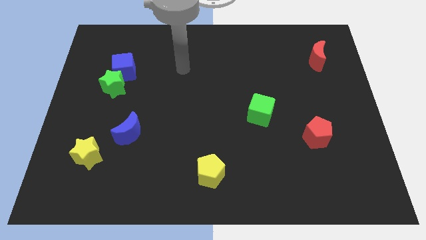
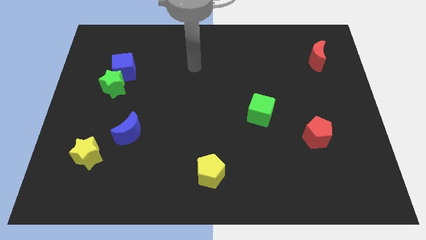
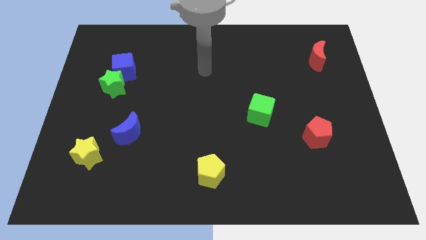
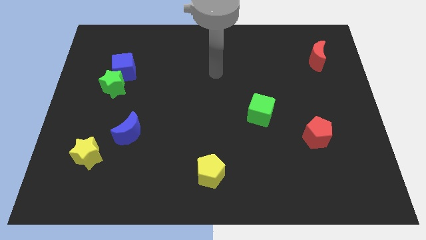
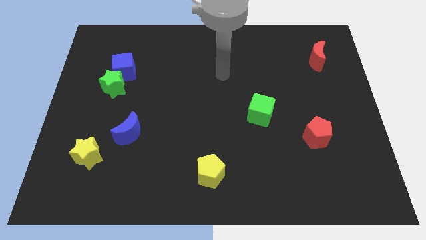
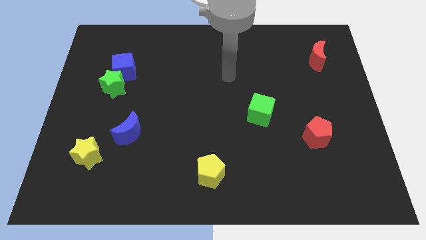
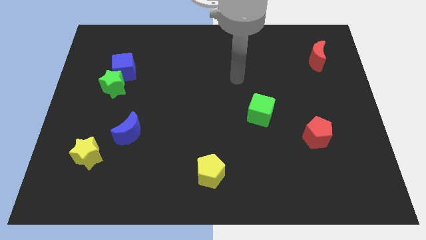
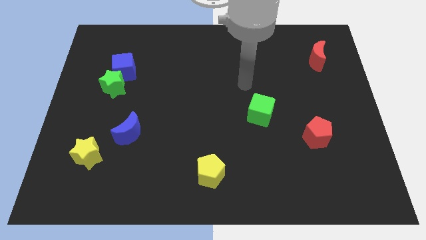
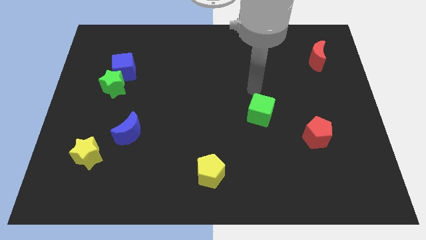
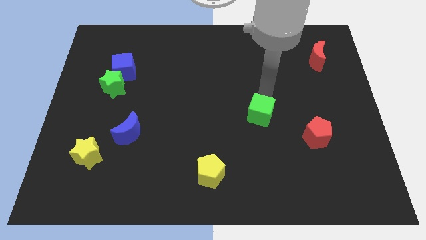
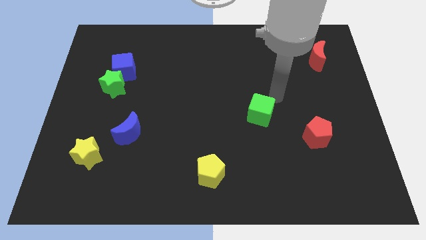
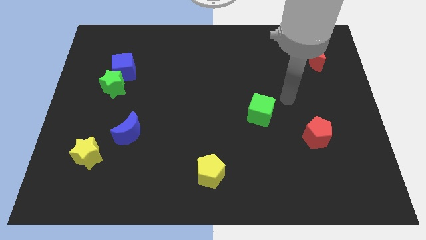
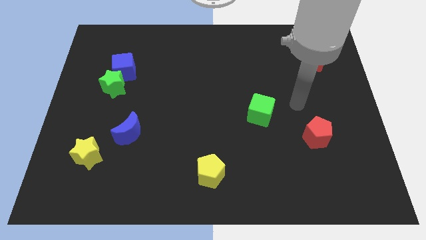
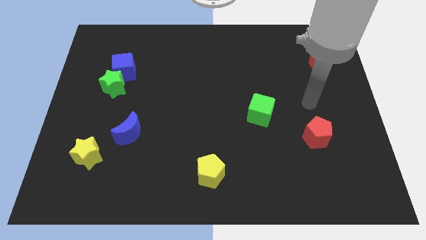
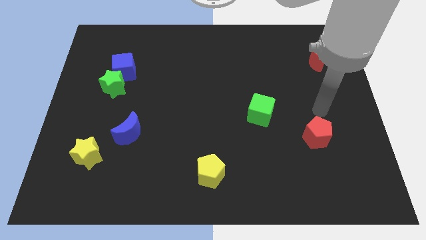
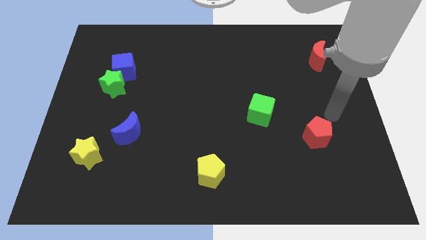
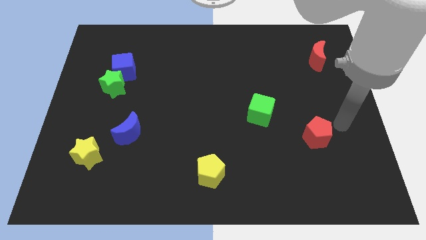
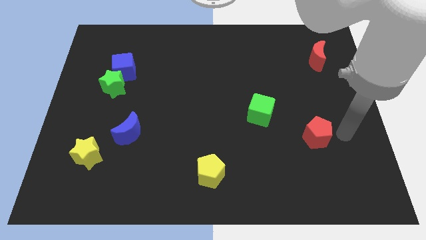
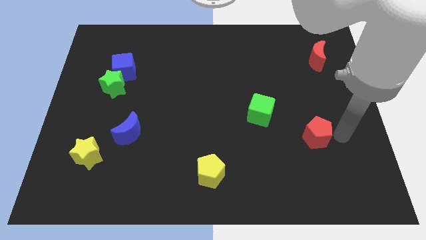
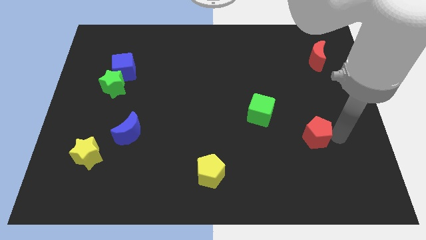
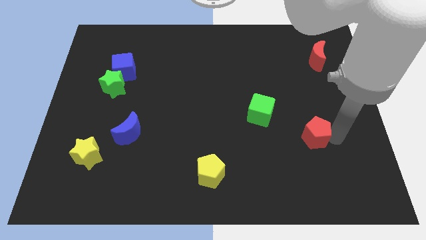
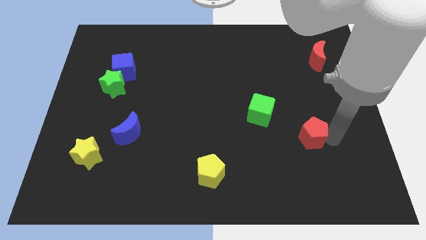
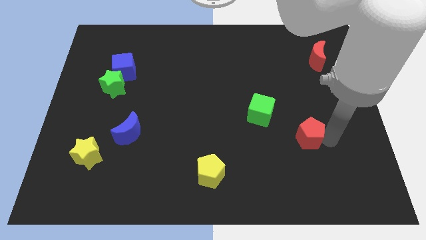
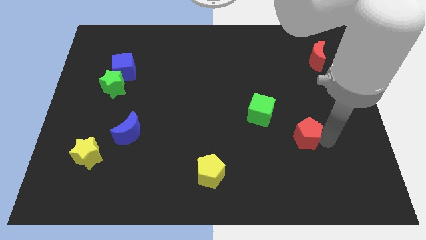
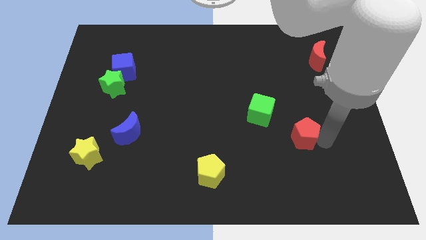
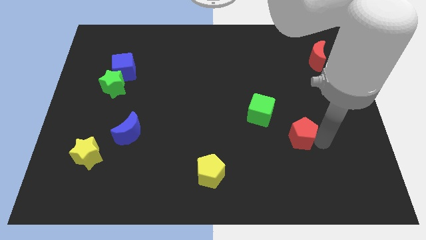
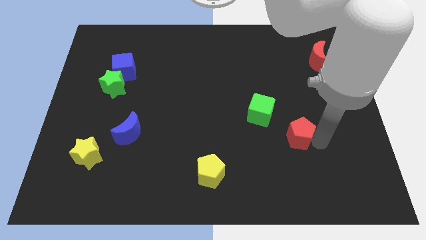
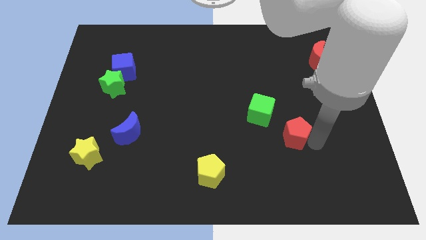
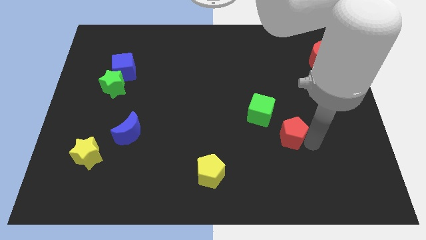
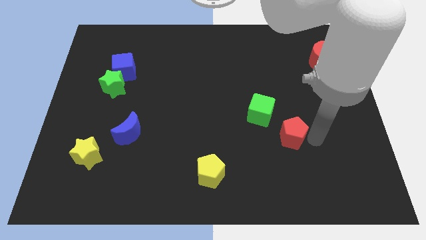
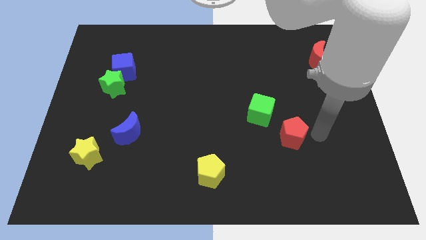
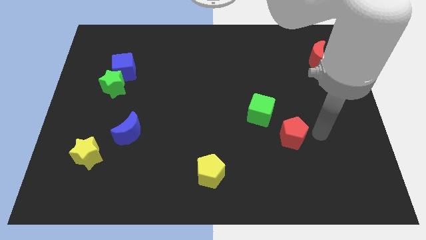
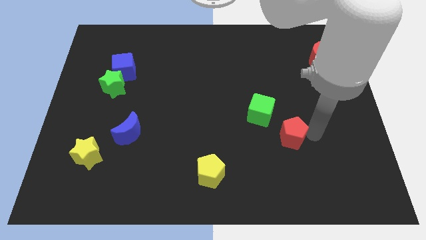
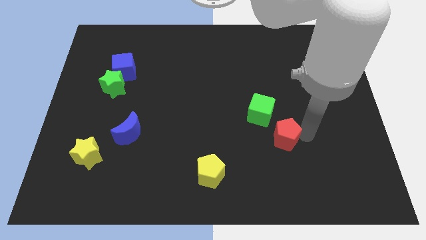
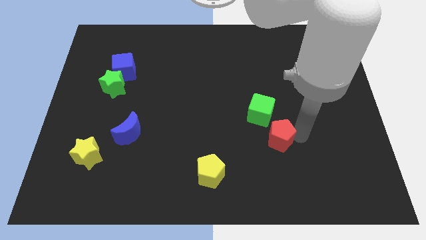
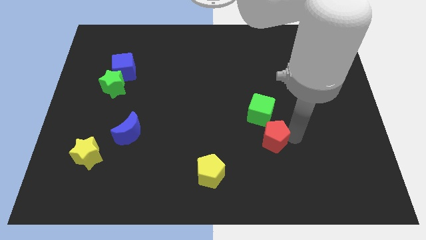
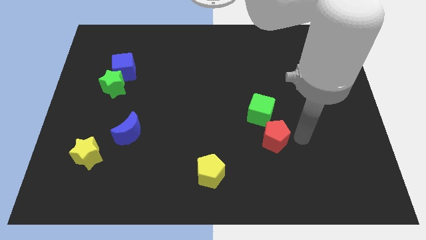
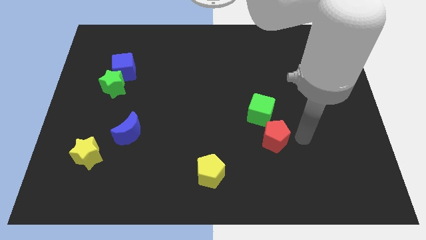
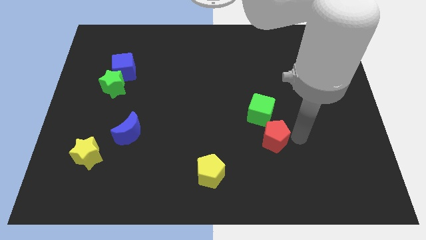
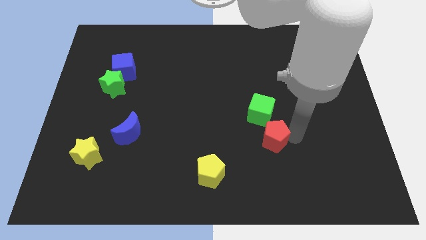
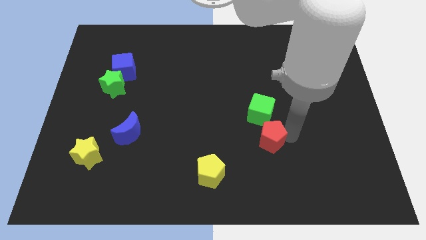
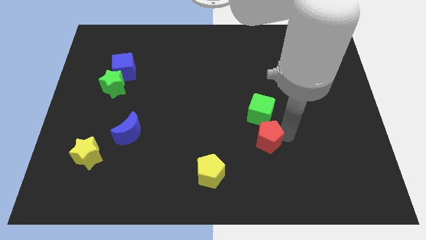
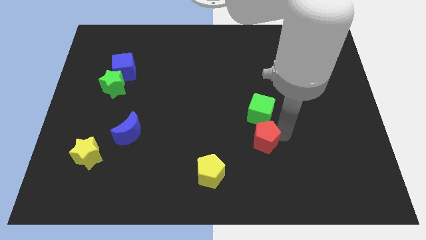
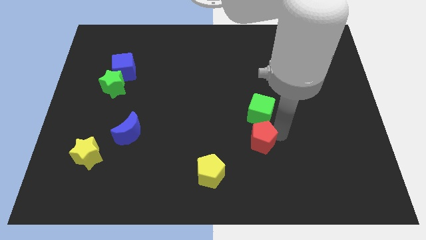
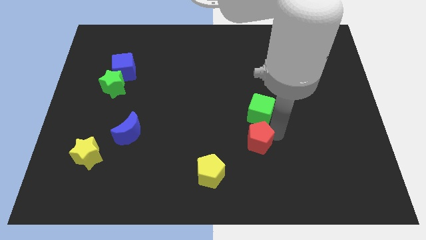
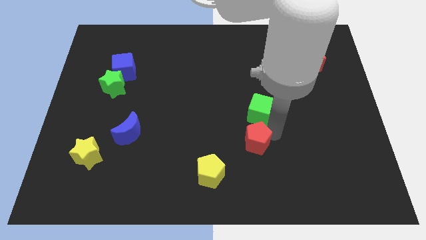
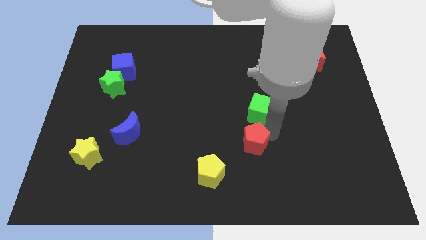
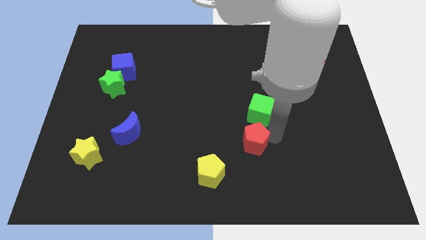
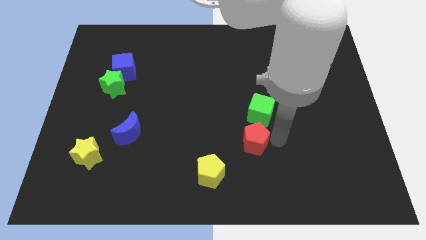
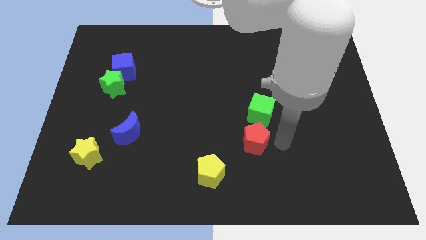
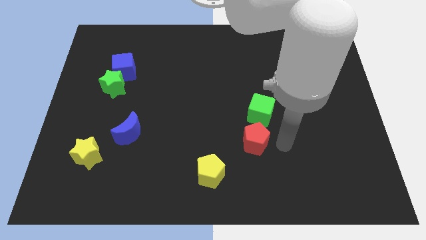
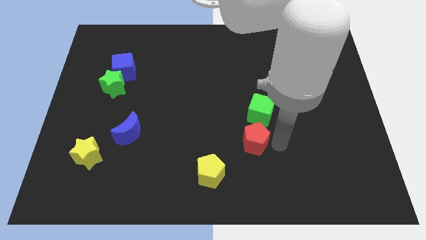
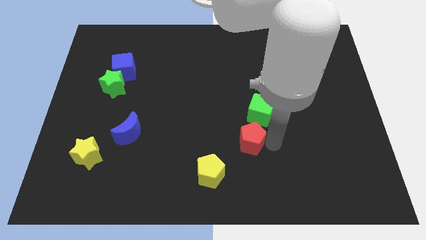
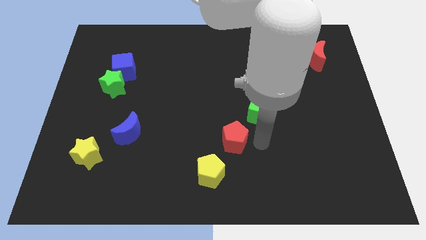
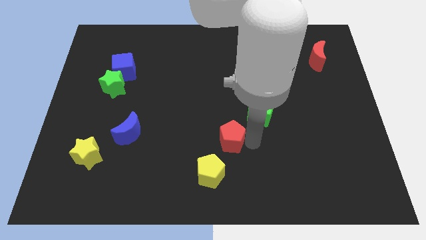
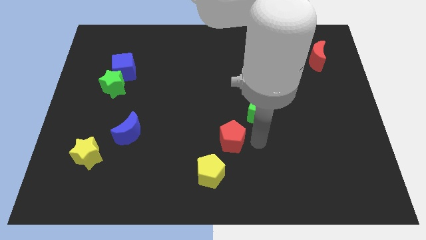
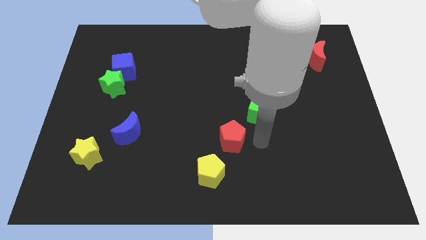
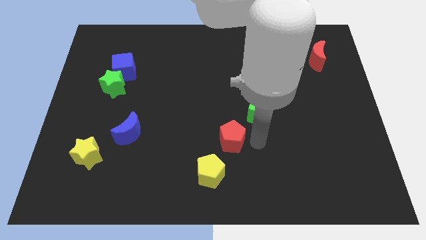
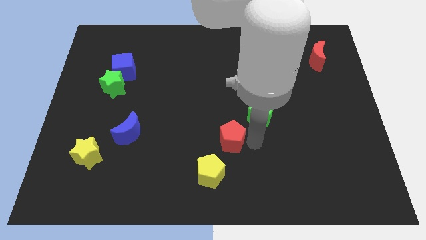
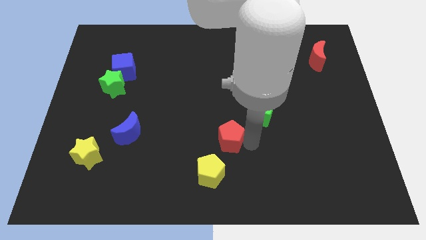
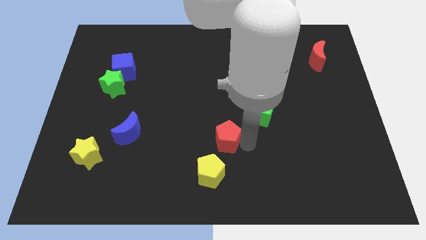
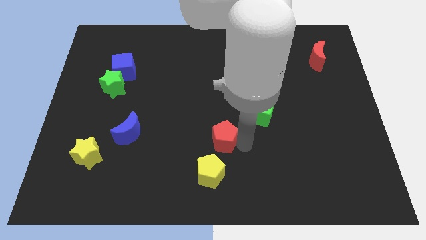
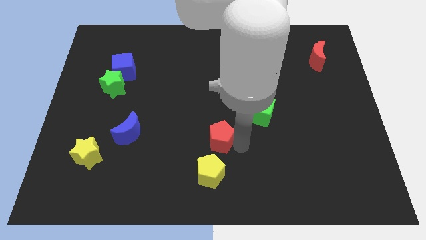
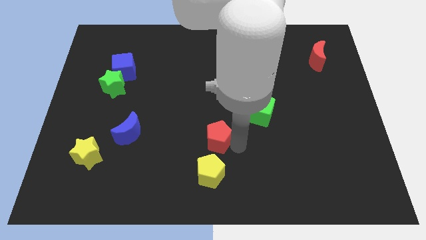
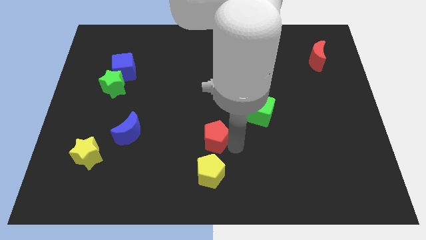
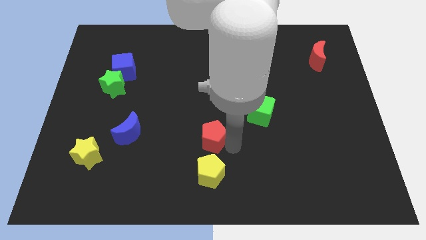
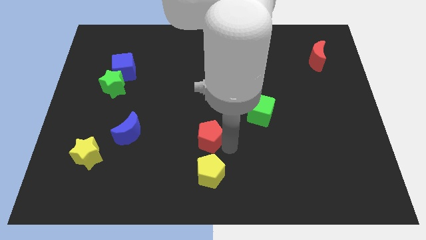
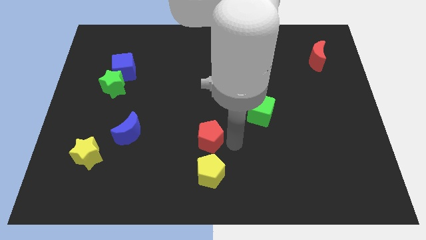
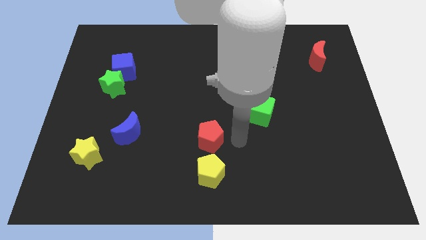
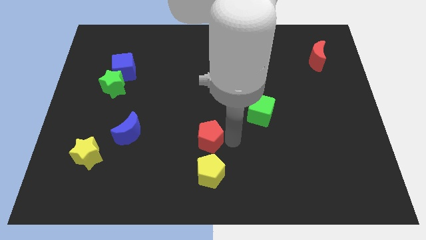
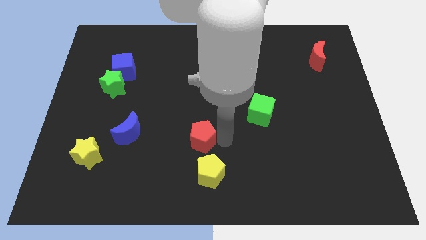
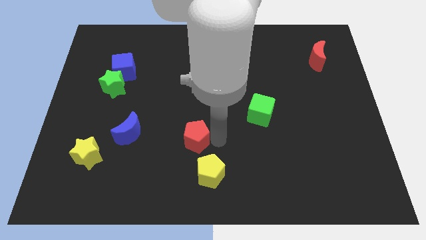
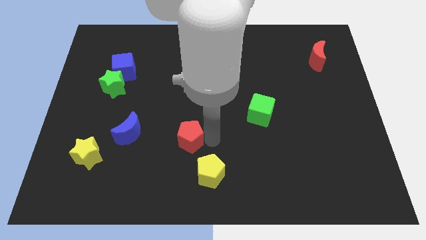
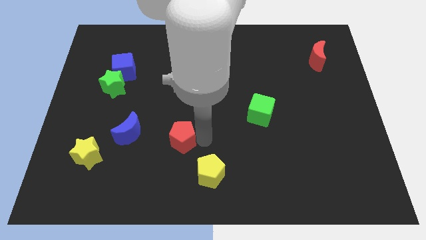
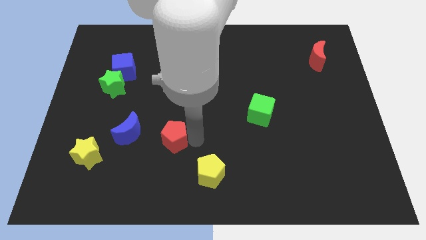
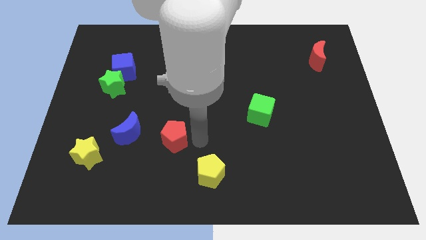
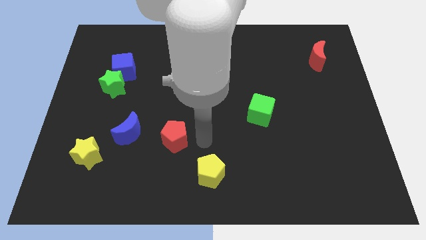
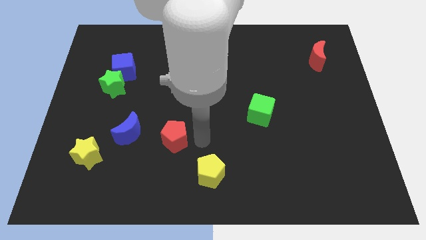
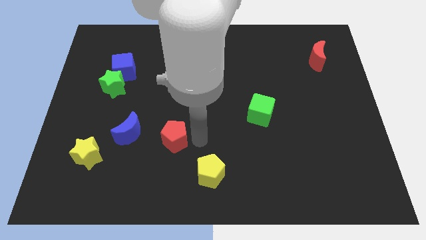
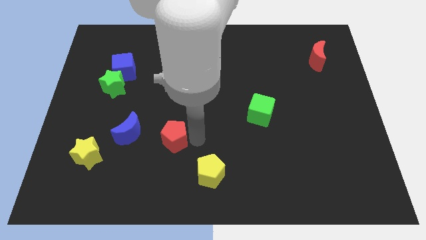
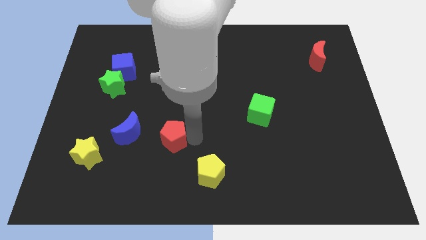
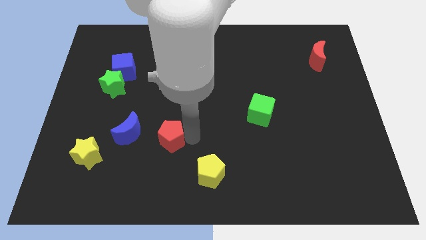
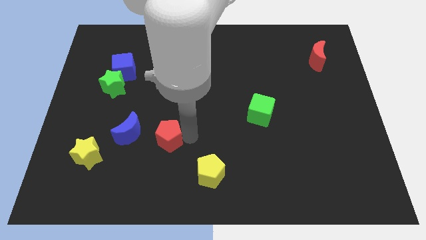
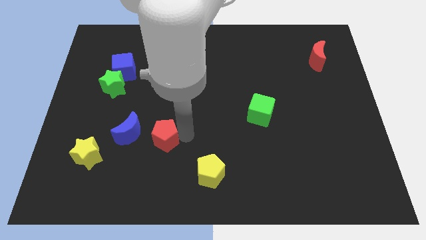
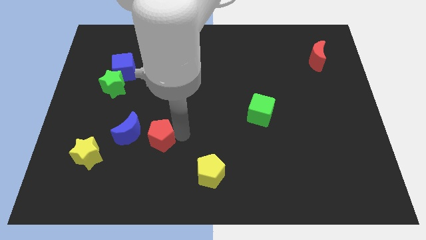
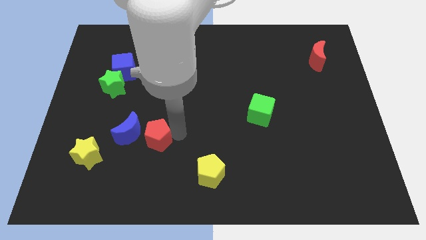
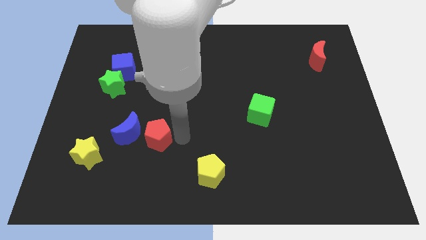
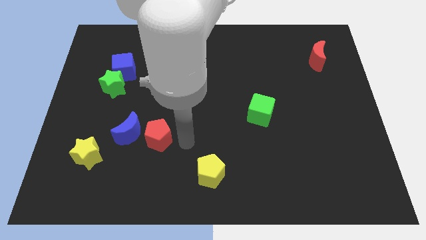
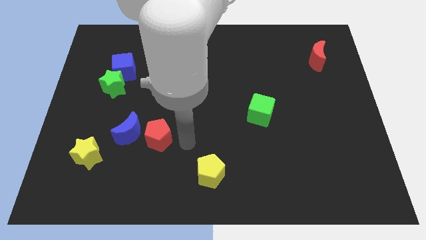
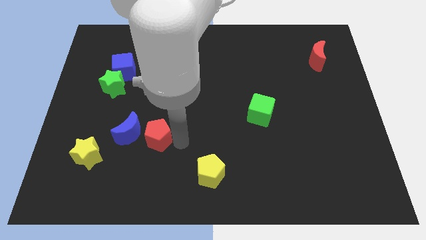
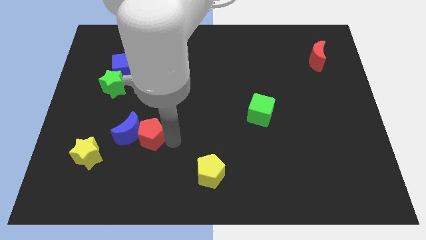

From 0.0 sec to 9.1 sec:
move the red pentagon close to the blue moon
